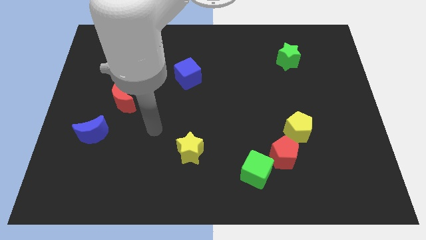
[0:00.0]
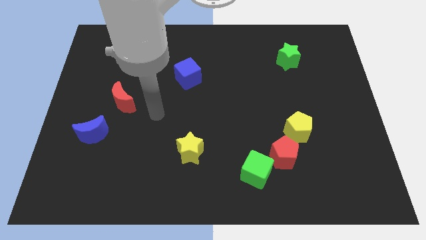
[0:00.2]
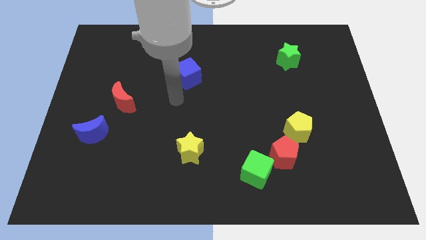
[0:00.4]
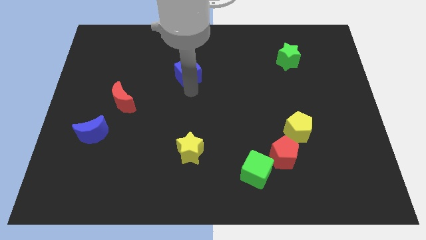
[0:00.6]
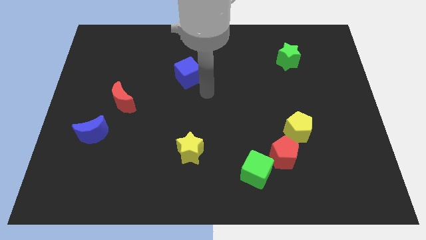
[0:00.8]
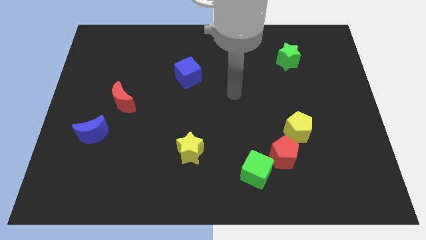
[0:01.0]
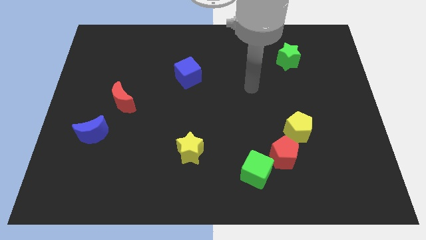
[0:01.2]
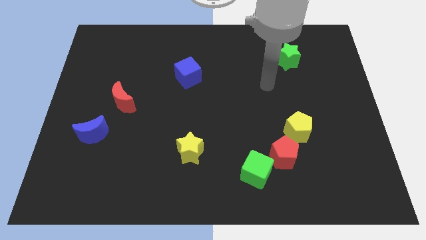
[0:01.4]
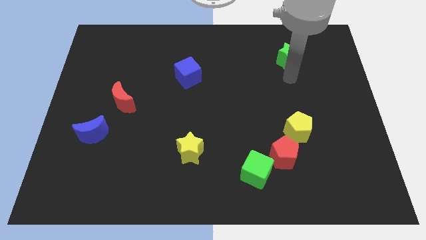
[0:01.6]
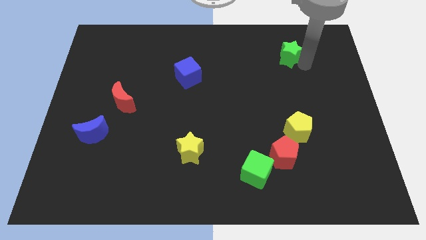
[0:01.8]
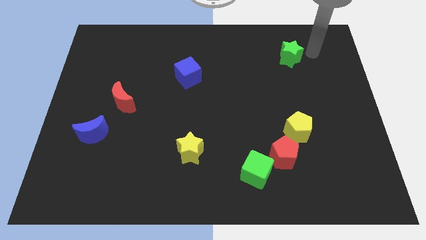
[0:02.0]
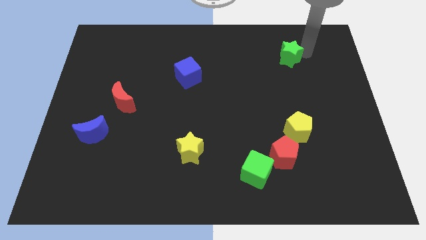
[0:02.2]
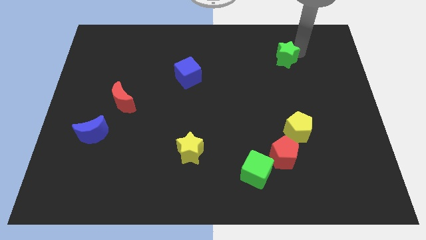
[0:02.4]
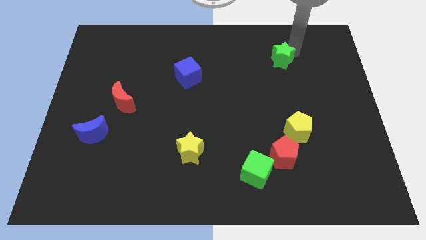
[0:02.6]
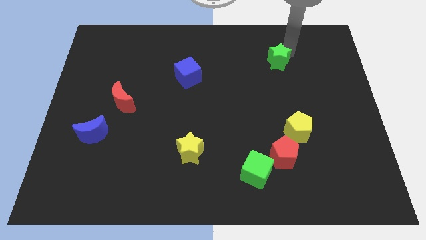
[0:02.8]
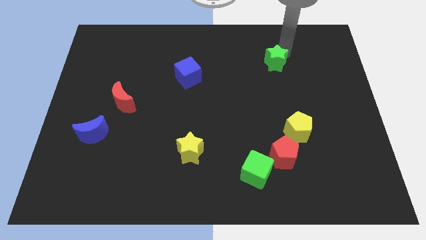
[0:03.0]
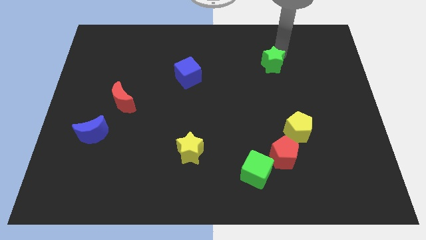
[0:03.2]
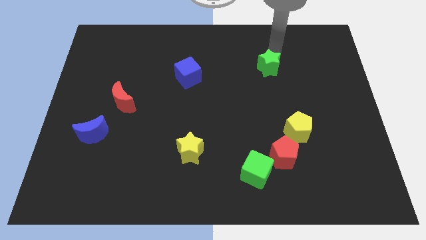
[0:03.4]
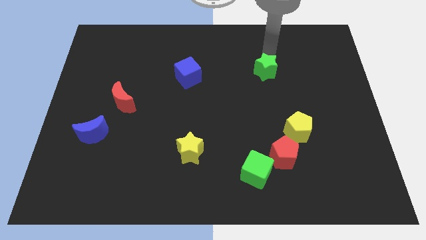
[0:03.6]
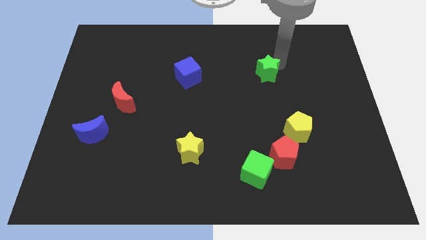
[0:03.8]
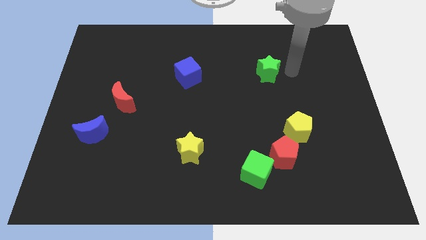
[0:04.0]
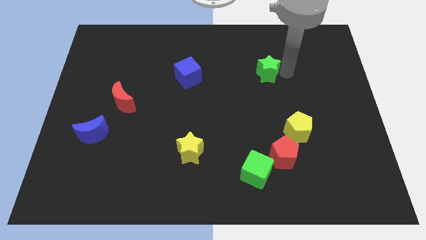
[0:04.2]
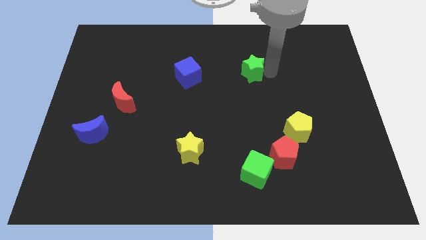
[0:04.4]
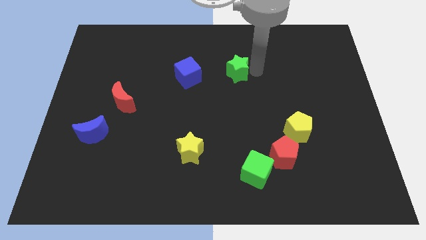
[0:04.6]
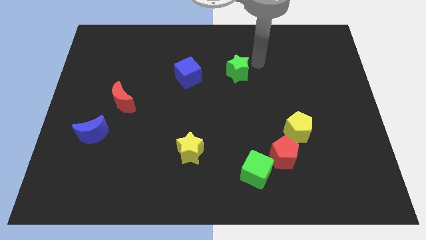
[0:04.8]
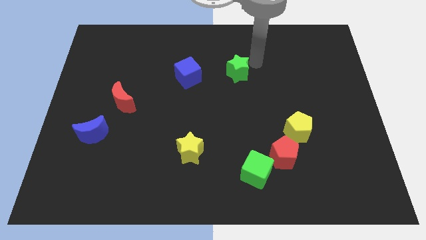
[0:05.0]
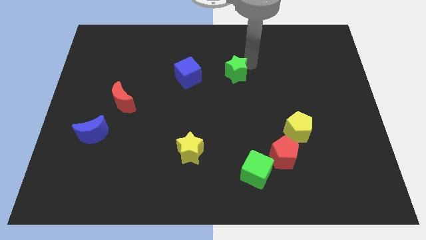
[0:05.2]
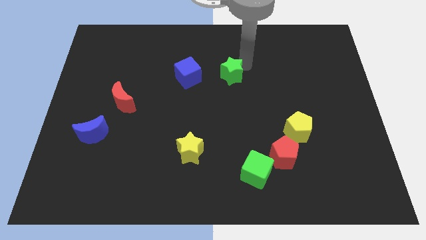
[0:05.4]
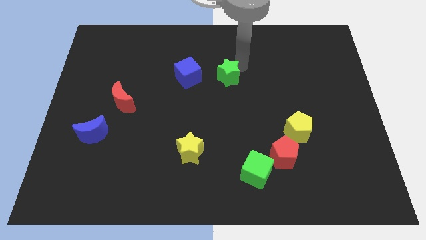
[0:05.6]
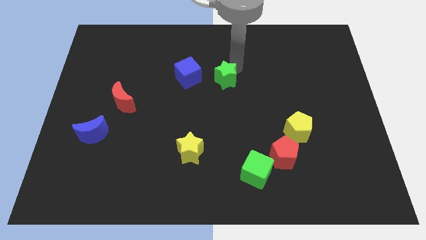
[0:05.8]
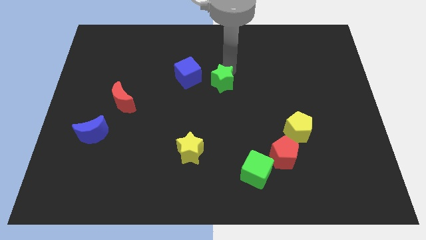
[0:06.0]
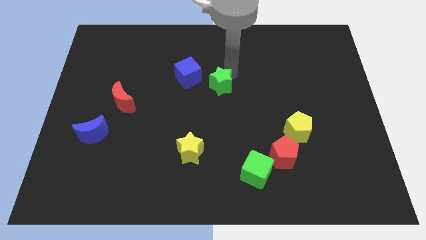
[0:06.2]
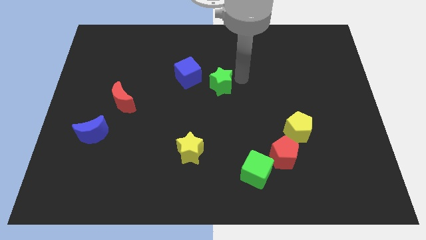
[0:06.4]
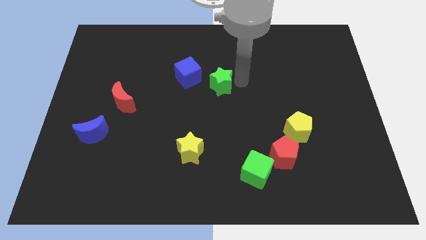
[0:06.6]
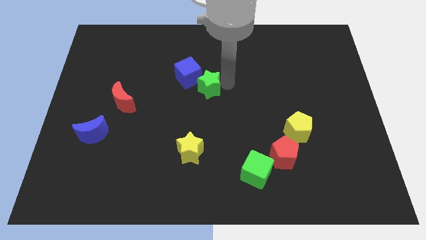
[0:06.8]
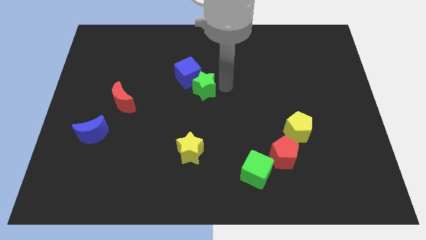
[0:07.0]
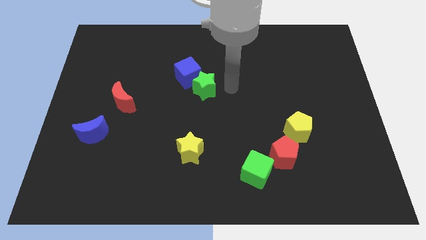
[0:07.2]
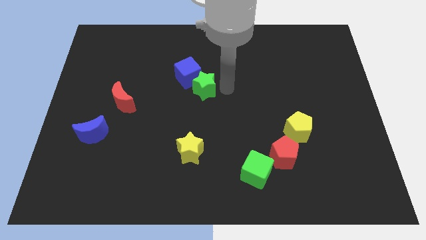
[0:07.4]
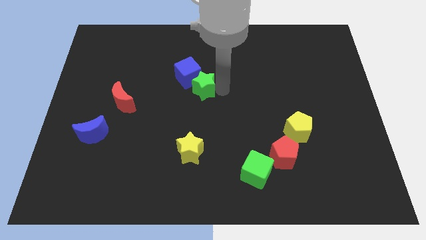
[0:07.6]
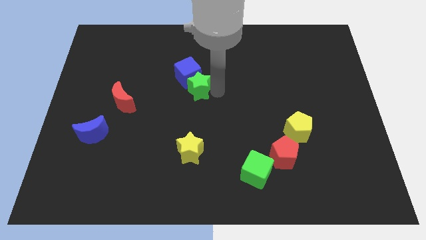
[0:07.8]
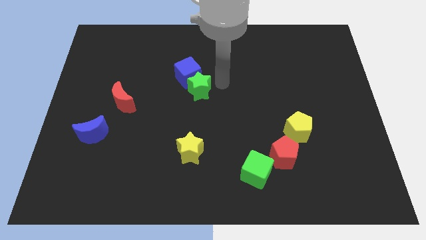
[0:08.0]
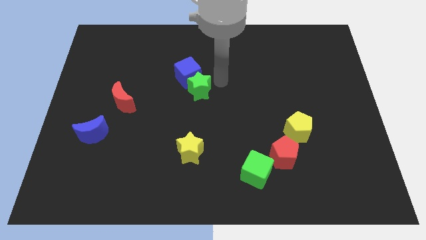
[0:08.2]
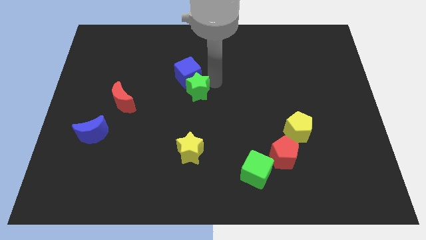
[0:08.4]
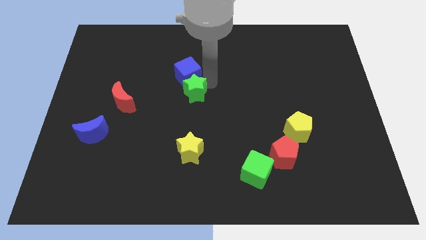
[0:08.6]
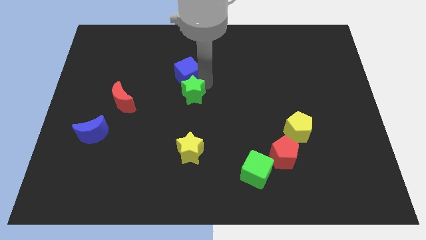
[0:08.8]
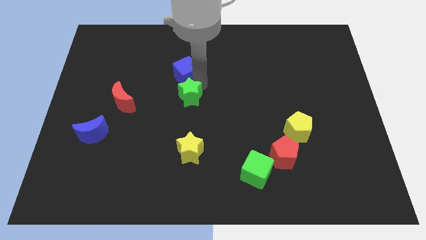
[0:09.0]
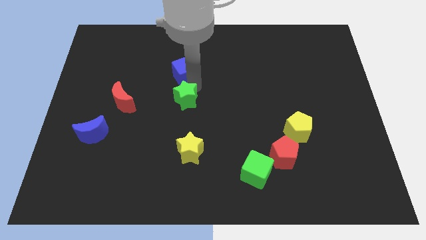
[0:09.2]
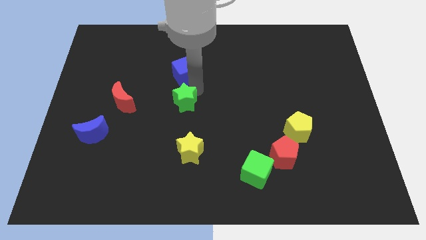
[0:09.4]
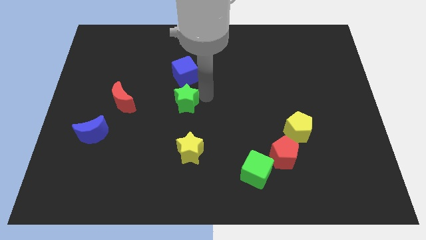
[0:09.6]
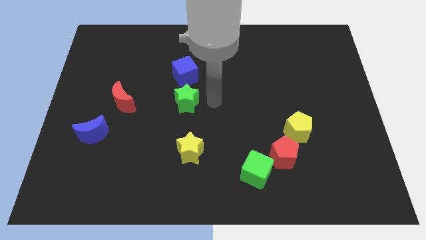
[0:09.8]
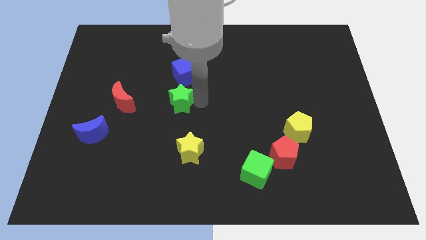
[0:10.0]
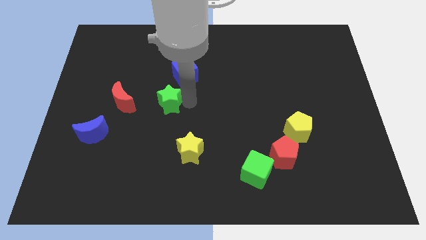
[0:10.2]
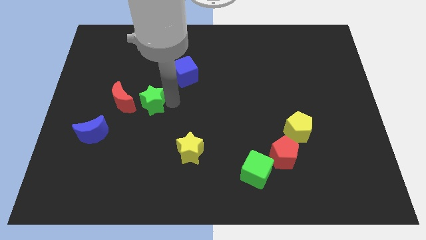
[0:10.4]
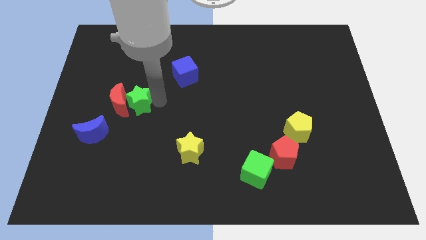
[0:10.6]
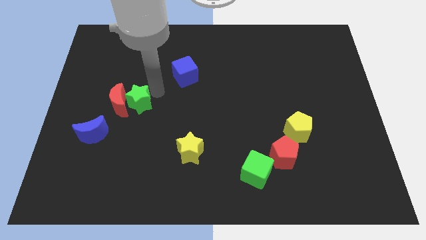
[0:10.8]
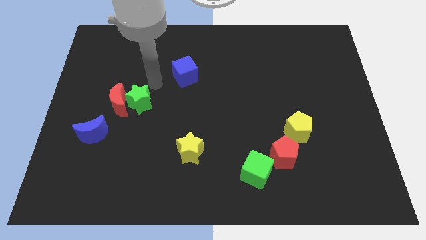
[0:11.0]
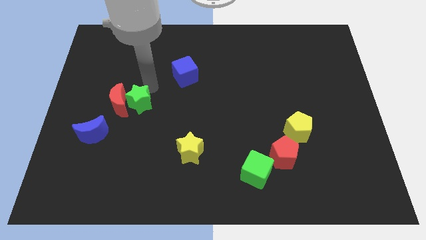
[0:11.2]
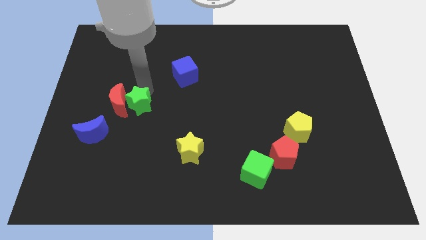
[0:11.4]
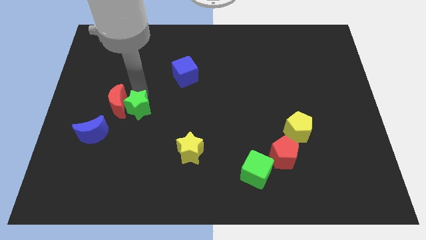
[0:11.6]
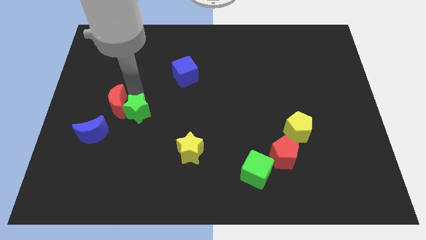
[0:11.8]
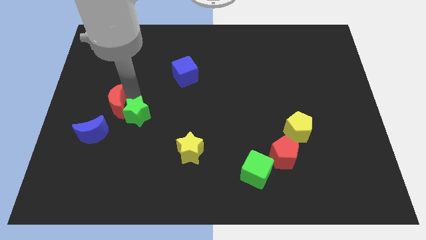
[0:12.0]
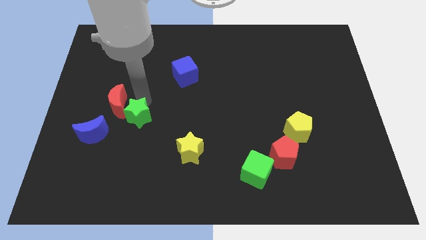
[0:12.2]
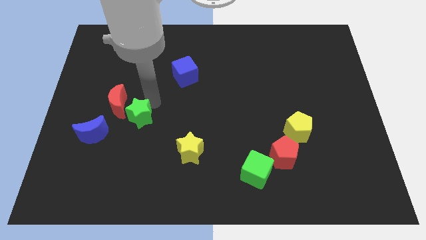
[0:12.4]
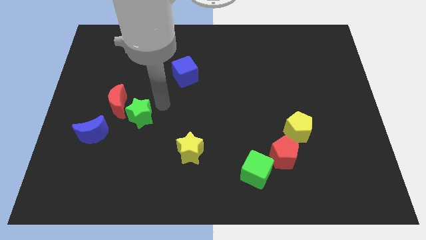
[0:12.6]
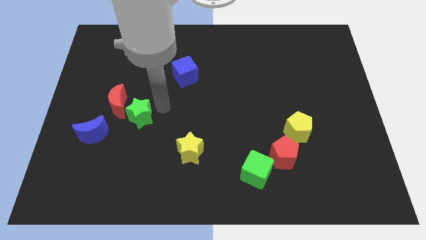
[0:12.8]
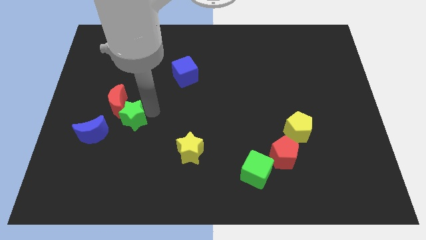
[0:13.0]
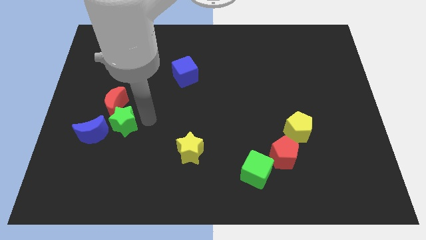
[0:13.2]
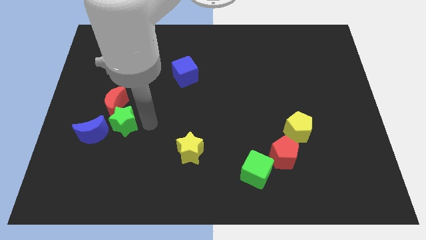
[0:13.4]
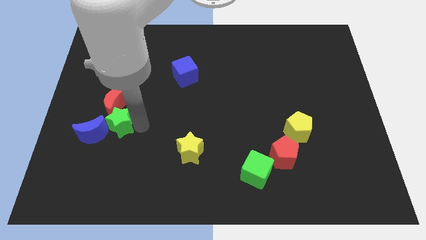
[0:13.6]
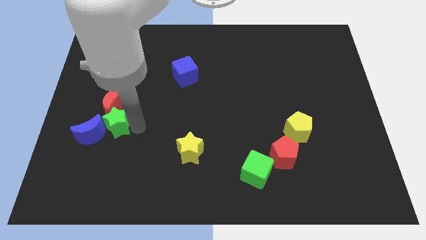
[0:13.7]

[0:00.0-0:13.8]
push the green star diagonally down and to the left of the red moon
